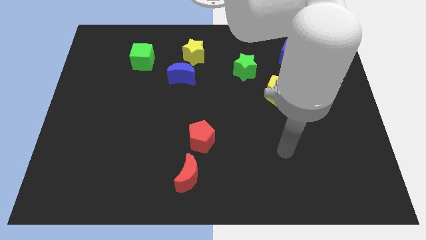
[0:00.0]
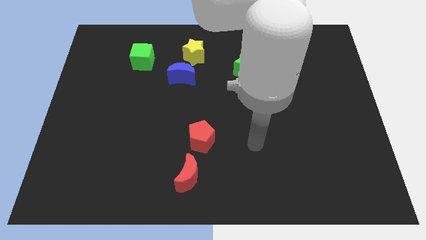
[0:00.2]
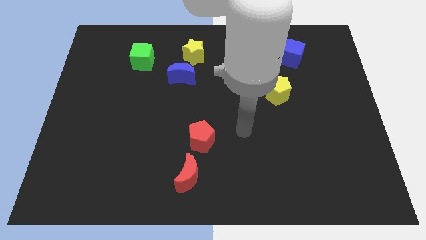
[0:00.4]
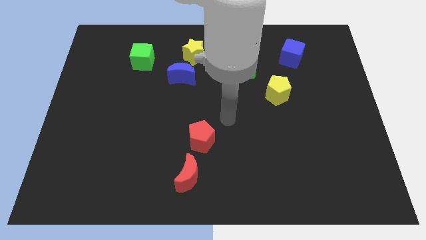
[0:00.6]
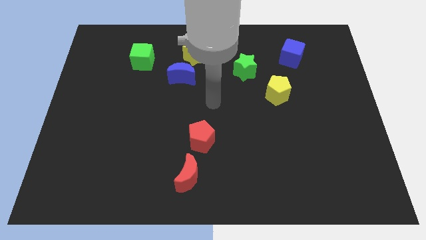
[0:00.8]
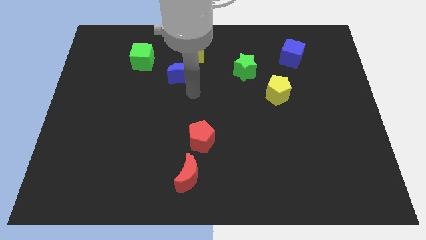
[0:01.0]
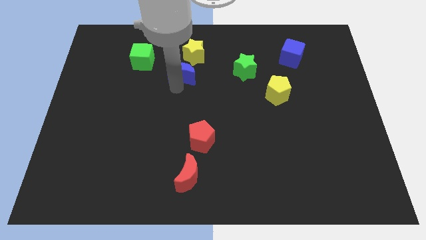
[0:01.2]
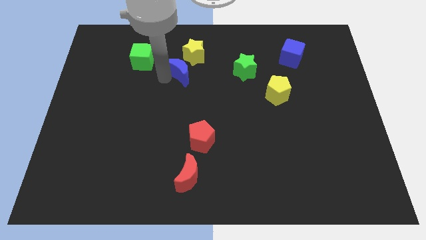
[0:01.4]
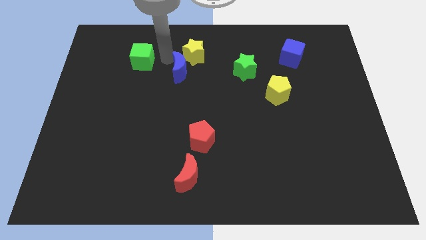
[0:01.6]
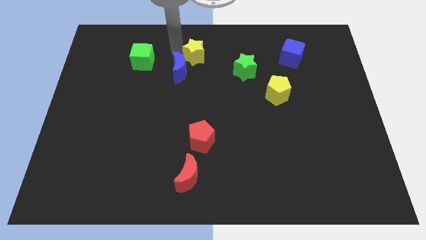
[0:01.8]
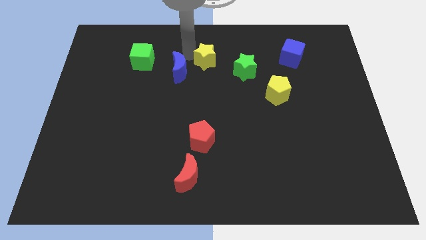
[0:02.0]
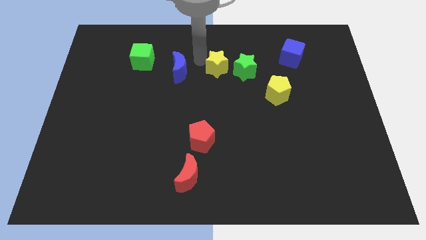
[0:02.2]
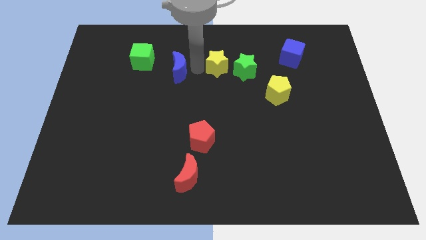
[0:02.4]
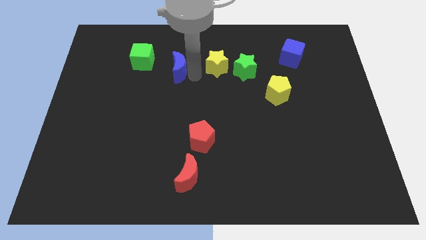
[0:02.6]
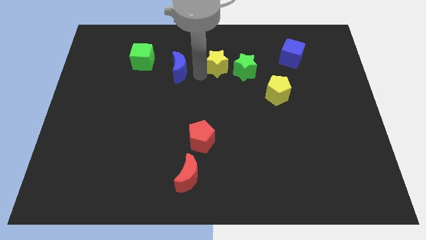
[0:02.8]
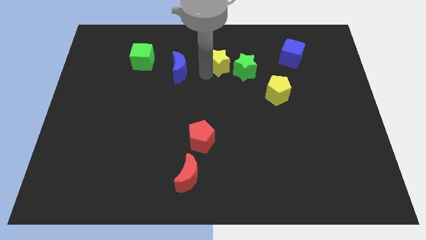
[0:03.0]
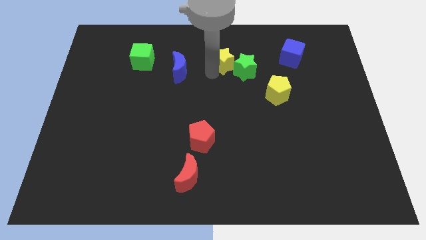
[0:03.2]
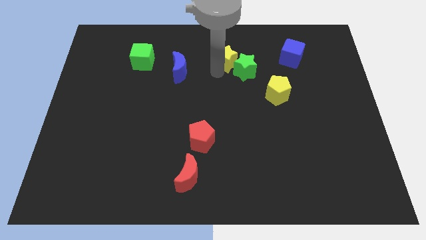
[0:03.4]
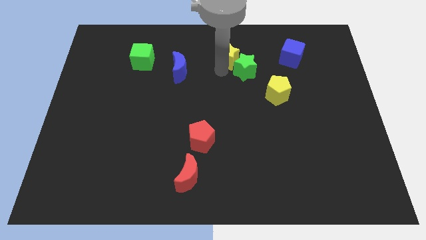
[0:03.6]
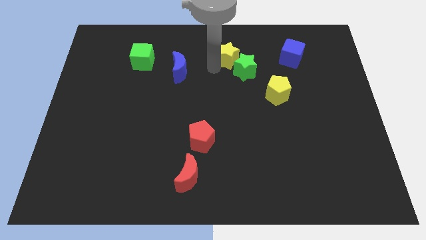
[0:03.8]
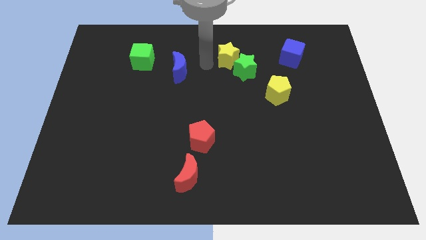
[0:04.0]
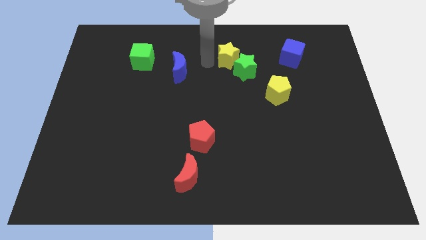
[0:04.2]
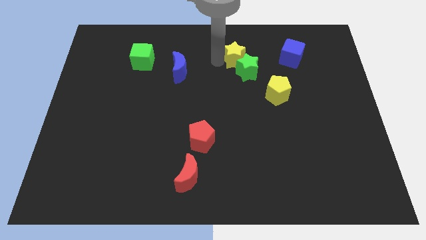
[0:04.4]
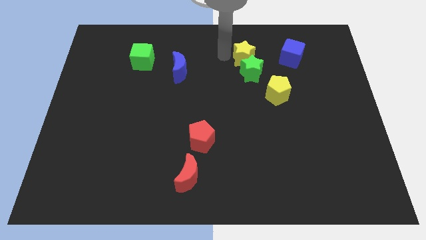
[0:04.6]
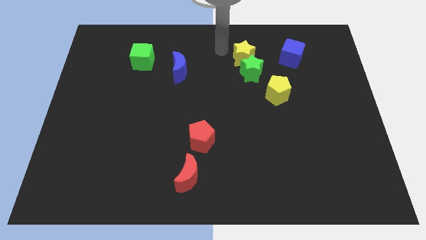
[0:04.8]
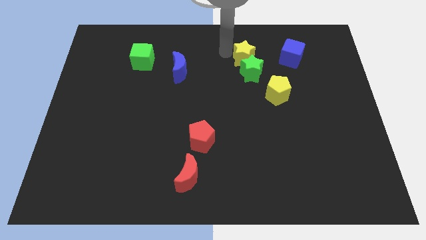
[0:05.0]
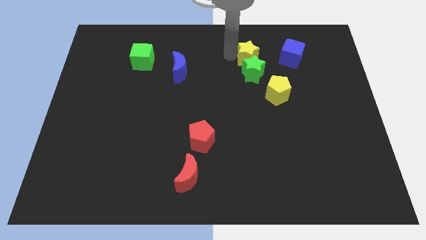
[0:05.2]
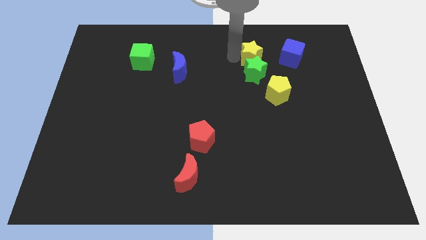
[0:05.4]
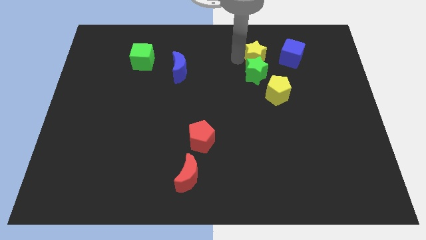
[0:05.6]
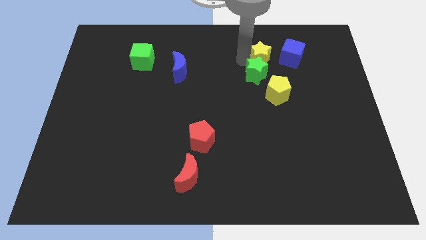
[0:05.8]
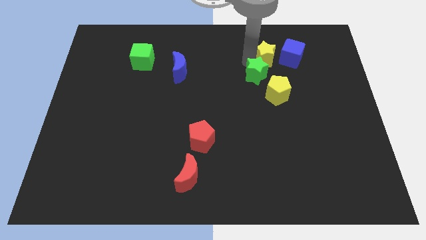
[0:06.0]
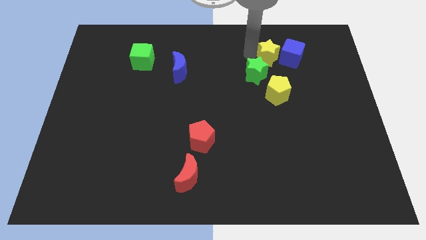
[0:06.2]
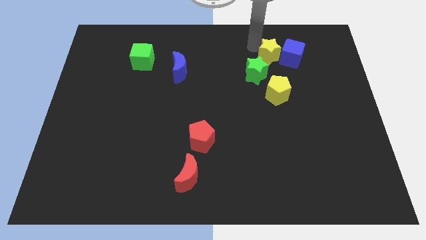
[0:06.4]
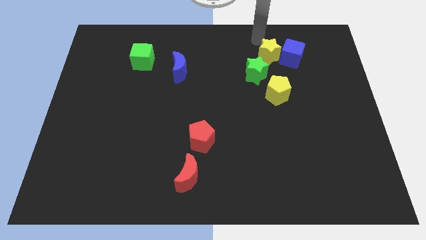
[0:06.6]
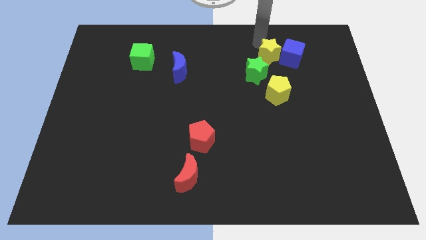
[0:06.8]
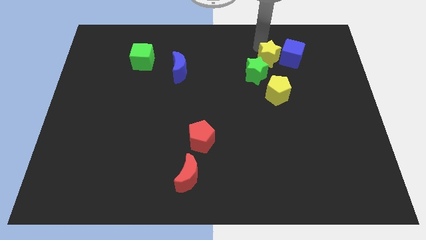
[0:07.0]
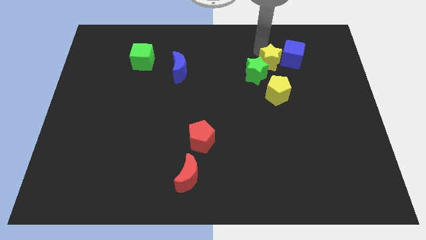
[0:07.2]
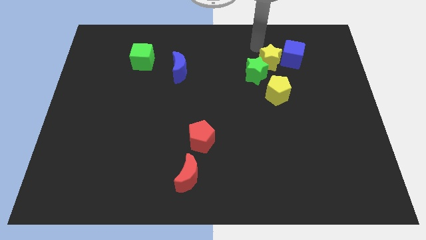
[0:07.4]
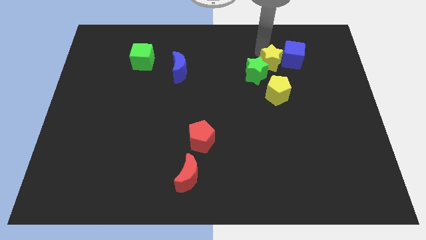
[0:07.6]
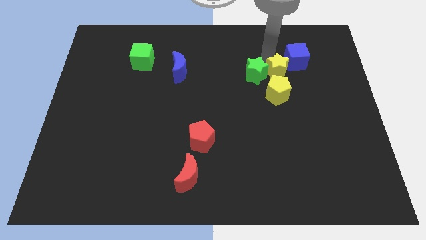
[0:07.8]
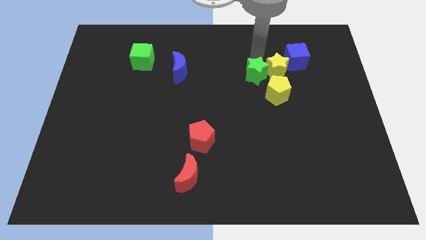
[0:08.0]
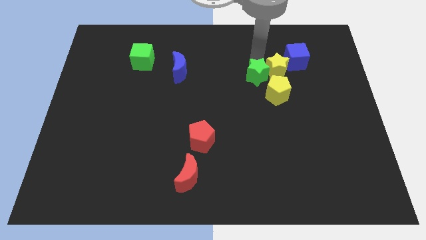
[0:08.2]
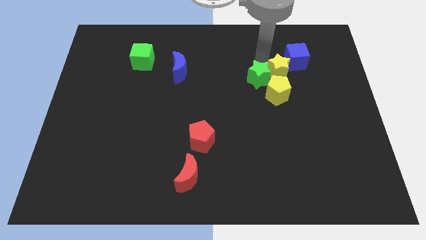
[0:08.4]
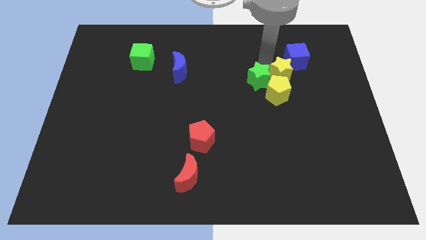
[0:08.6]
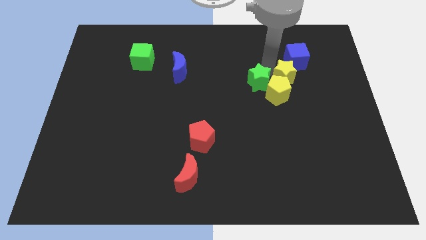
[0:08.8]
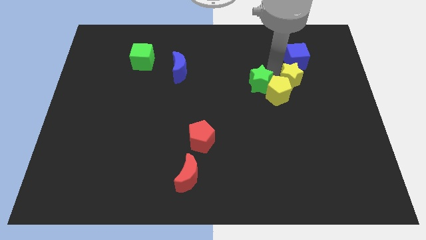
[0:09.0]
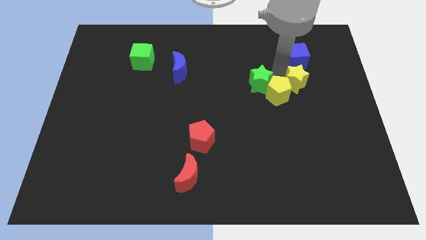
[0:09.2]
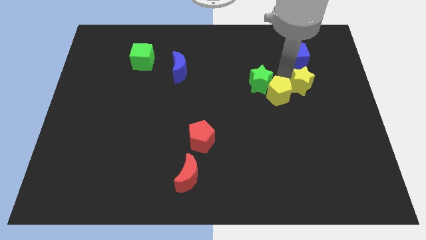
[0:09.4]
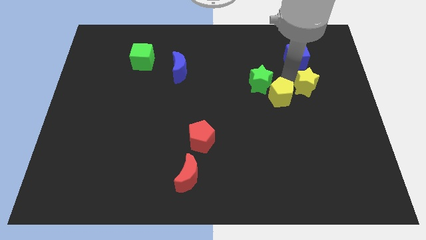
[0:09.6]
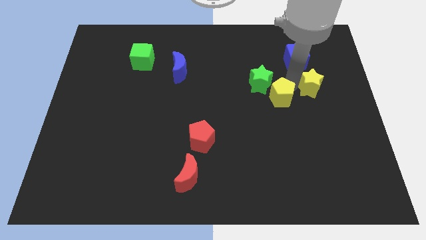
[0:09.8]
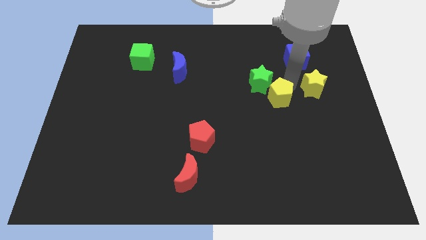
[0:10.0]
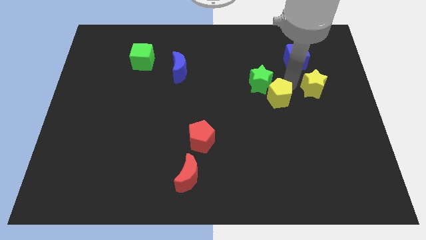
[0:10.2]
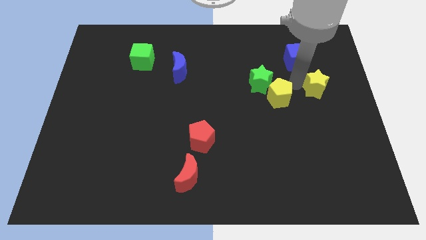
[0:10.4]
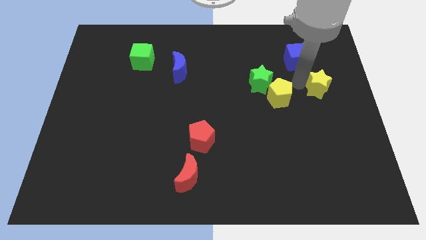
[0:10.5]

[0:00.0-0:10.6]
slide the yellow star to the right side of the board

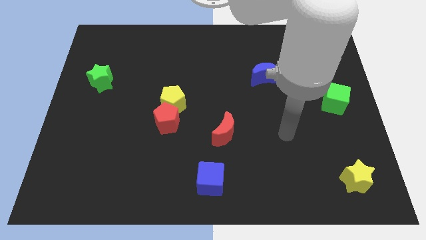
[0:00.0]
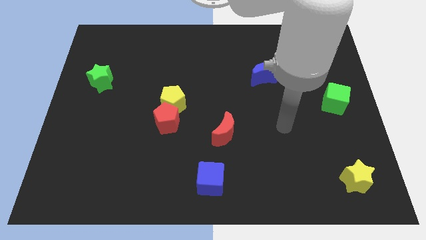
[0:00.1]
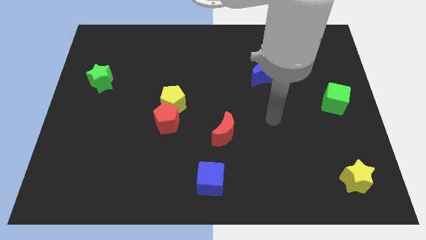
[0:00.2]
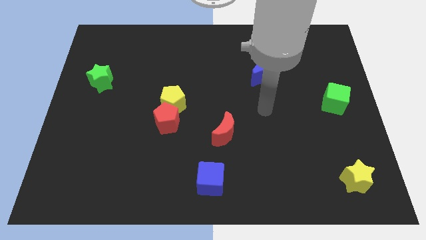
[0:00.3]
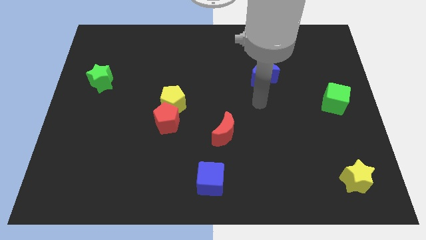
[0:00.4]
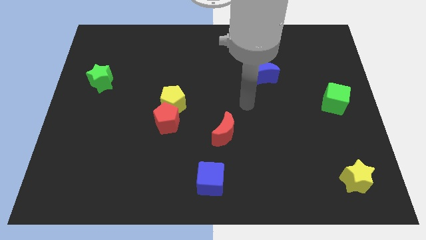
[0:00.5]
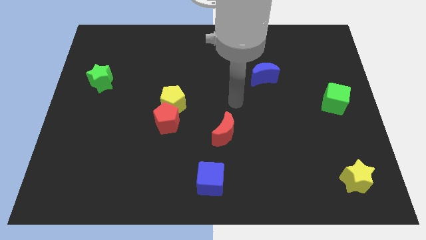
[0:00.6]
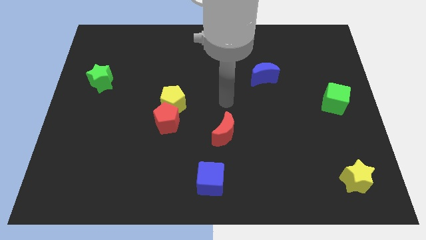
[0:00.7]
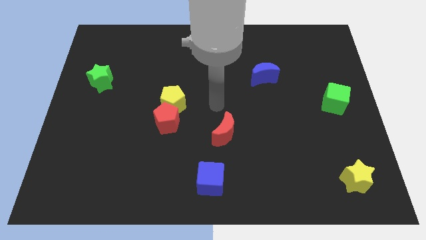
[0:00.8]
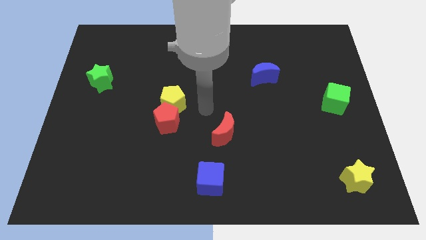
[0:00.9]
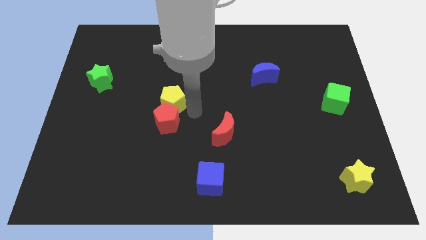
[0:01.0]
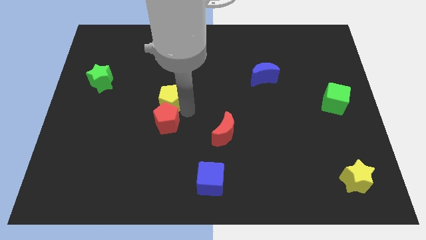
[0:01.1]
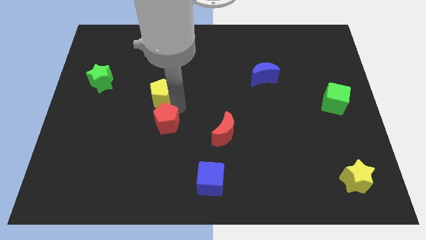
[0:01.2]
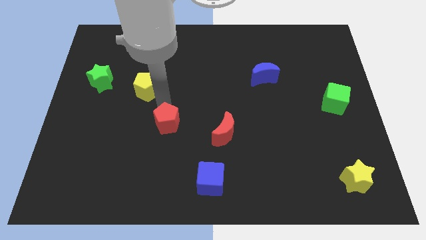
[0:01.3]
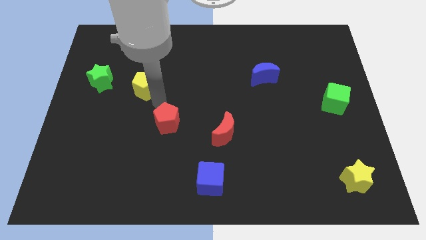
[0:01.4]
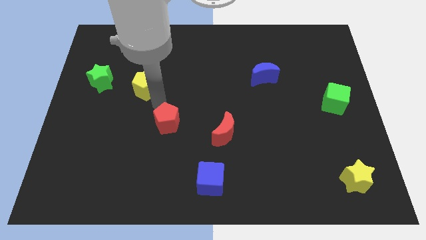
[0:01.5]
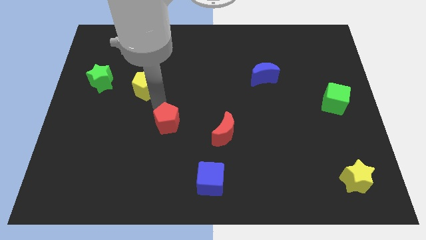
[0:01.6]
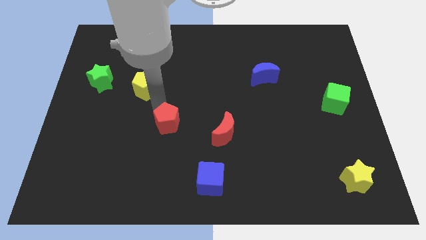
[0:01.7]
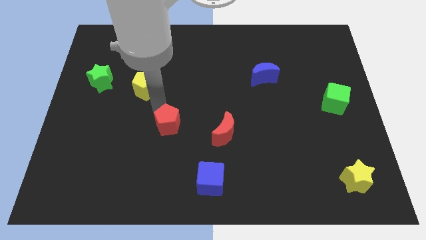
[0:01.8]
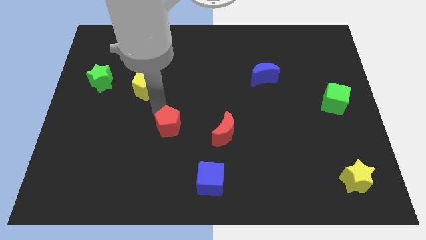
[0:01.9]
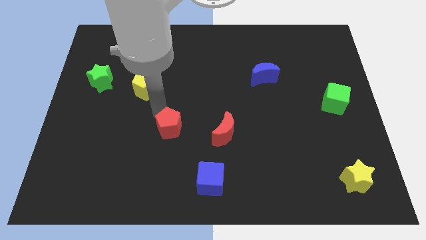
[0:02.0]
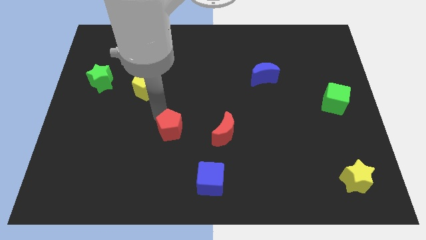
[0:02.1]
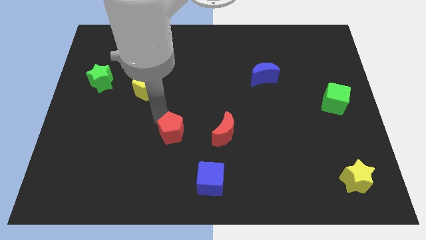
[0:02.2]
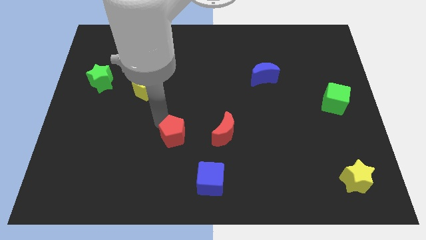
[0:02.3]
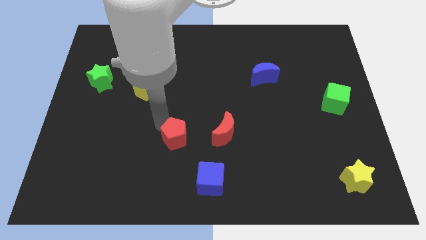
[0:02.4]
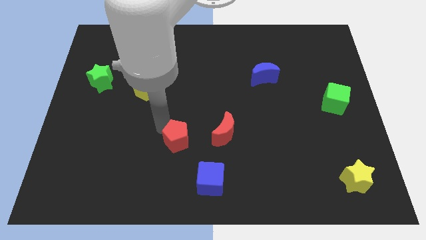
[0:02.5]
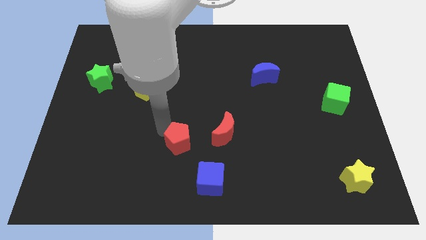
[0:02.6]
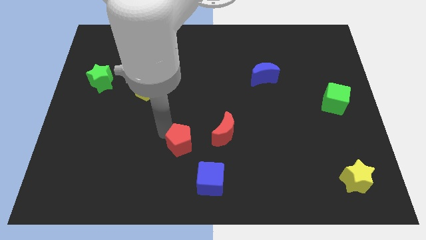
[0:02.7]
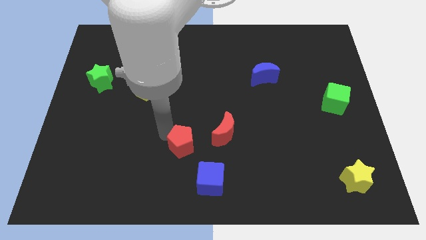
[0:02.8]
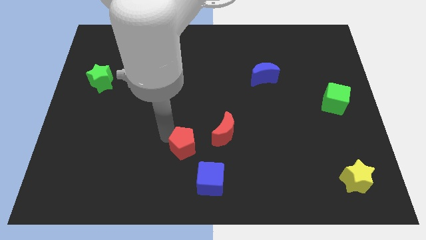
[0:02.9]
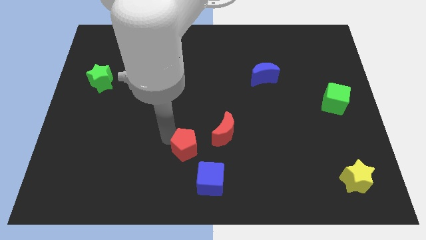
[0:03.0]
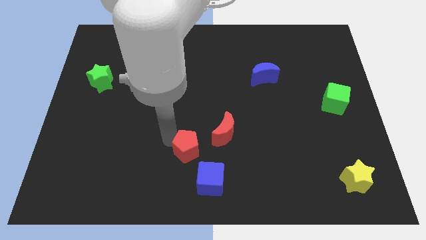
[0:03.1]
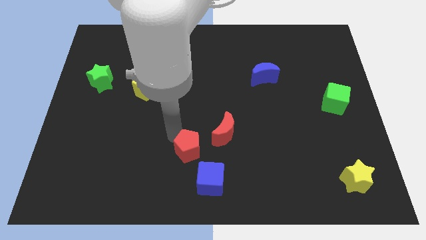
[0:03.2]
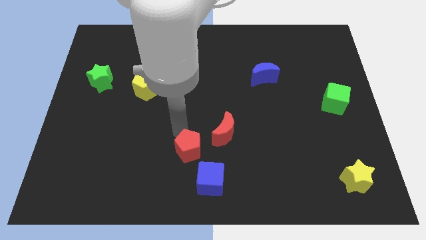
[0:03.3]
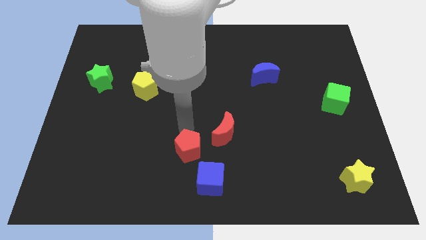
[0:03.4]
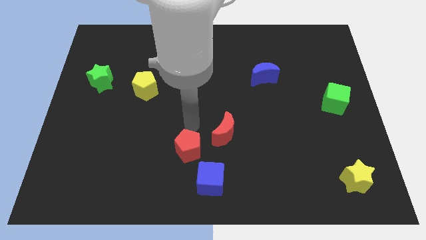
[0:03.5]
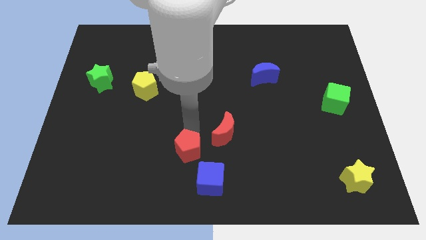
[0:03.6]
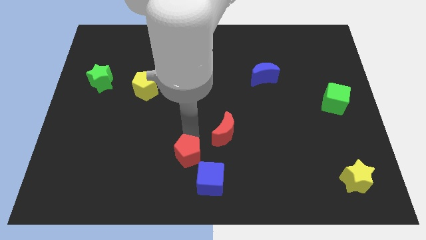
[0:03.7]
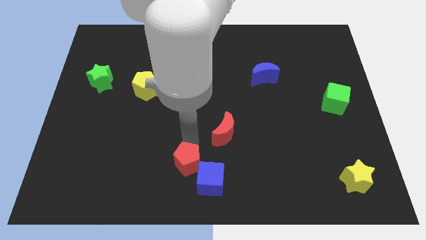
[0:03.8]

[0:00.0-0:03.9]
push the red pentagon to the bottom side
